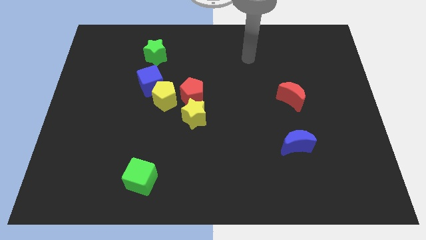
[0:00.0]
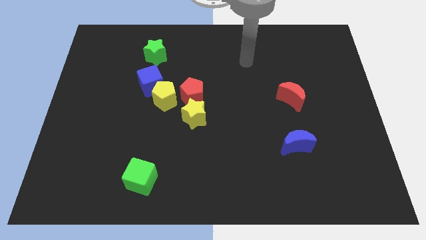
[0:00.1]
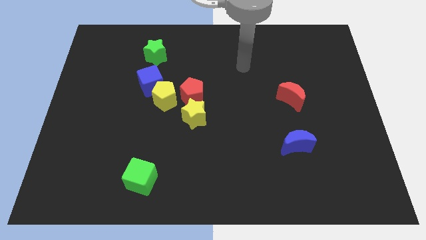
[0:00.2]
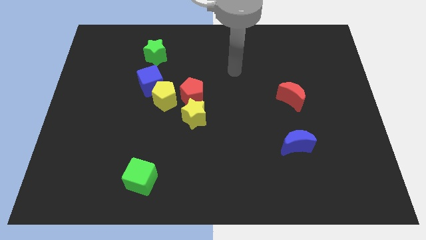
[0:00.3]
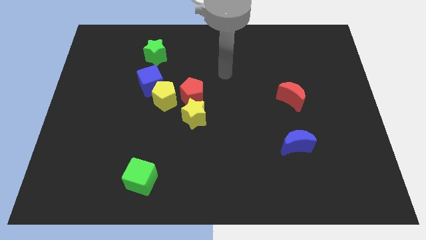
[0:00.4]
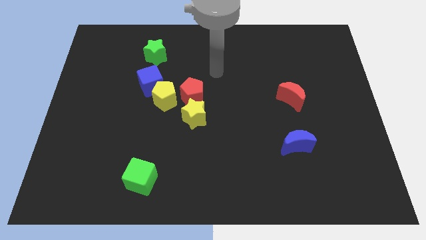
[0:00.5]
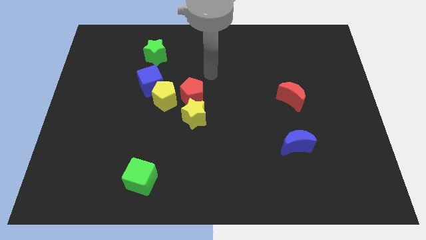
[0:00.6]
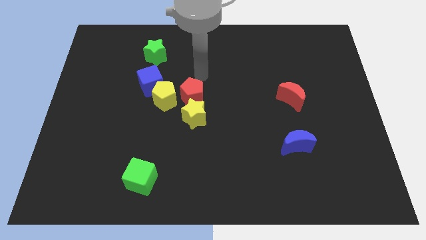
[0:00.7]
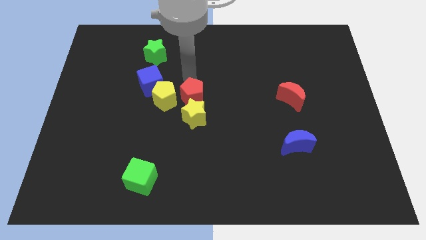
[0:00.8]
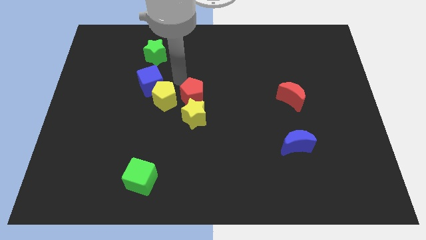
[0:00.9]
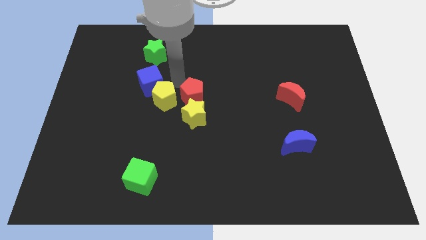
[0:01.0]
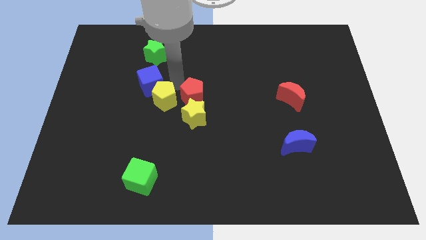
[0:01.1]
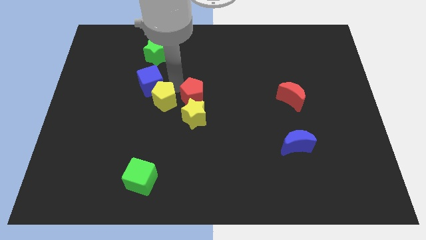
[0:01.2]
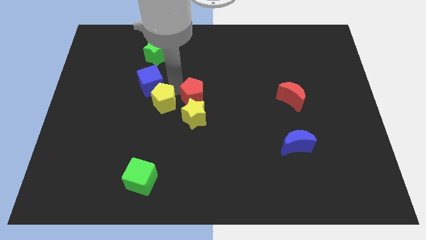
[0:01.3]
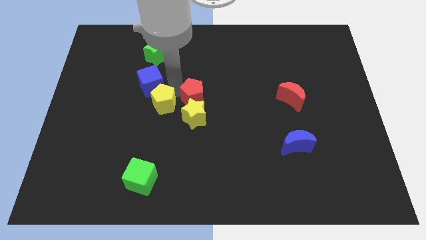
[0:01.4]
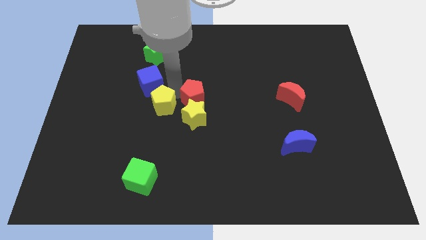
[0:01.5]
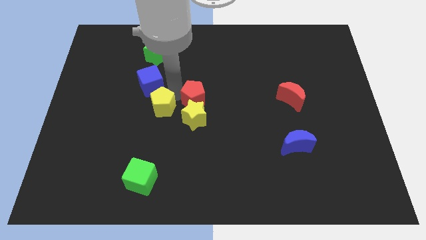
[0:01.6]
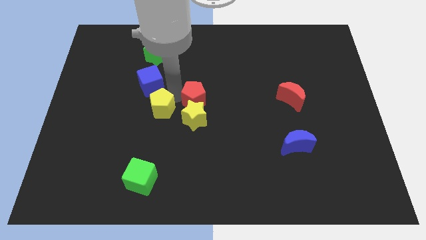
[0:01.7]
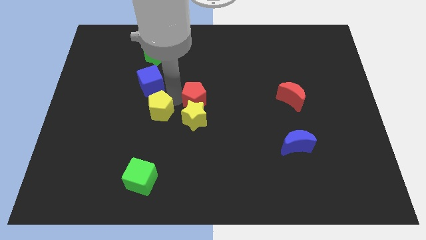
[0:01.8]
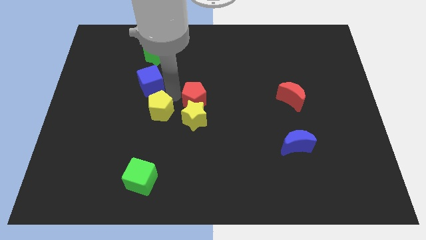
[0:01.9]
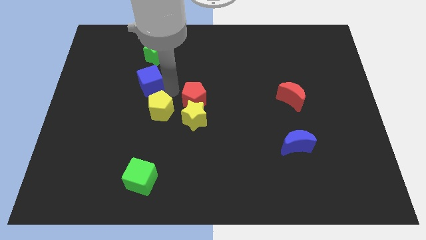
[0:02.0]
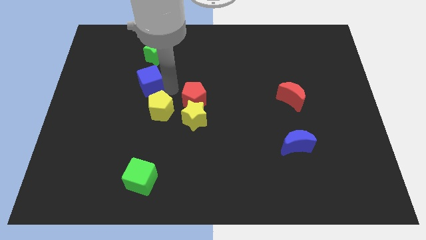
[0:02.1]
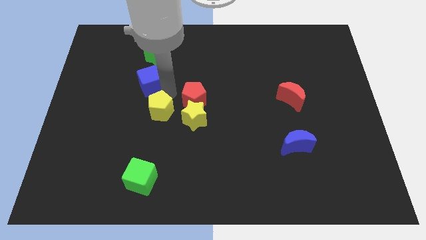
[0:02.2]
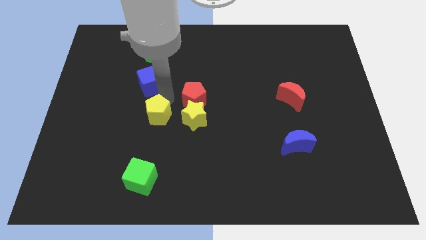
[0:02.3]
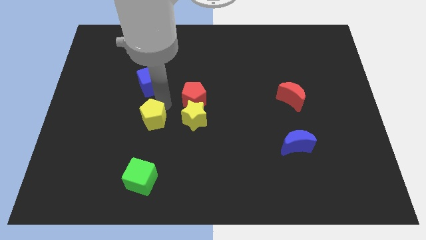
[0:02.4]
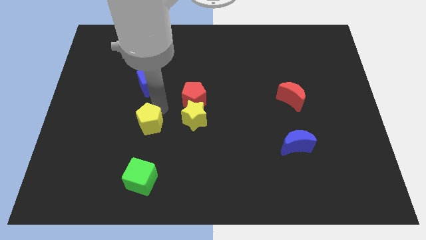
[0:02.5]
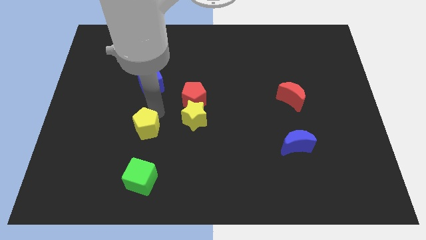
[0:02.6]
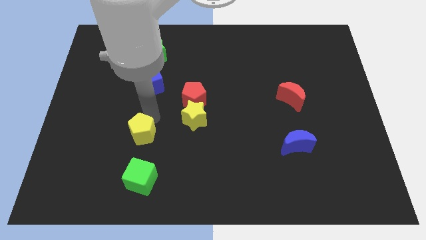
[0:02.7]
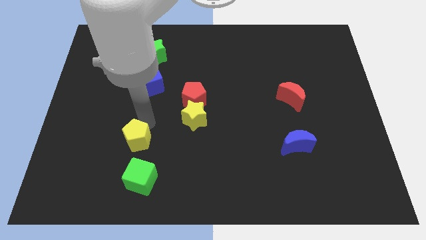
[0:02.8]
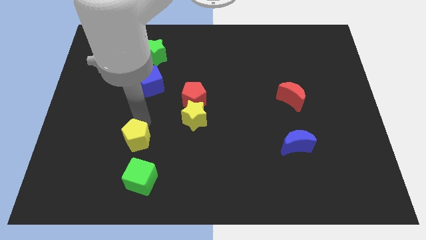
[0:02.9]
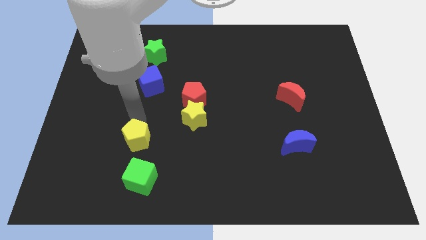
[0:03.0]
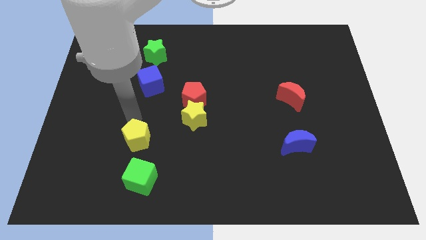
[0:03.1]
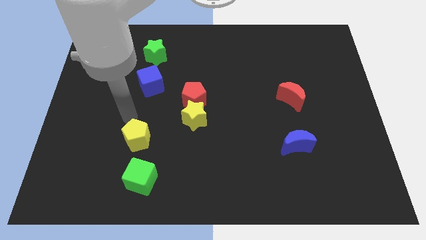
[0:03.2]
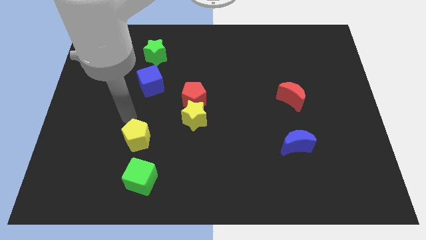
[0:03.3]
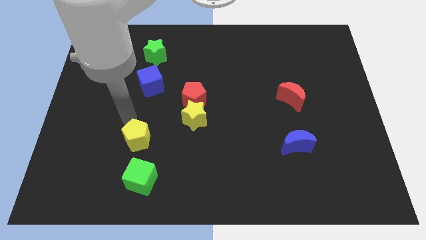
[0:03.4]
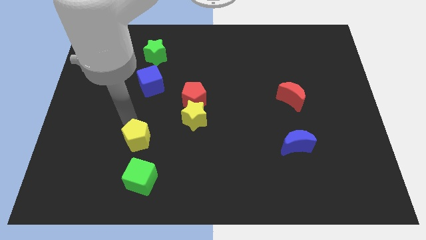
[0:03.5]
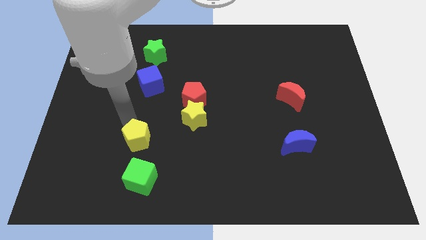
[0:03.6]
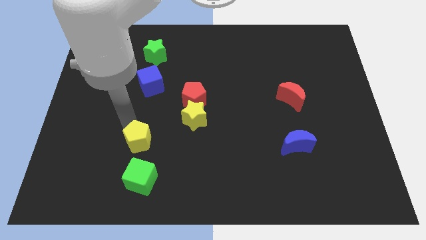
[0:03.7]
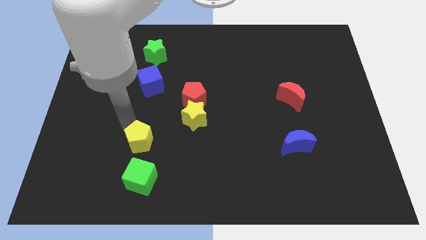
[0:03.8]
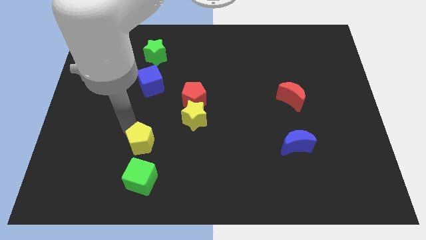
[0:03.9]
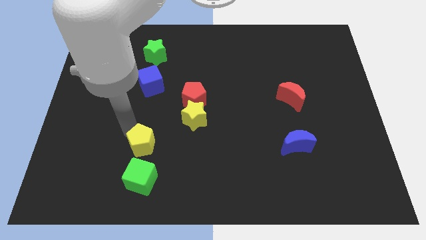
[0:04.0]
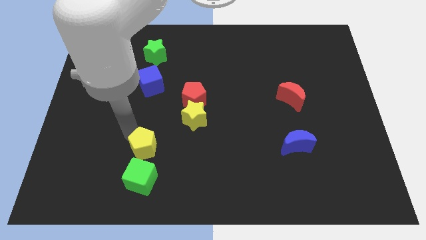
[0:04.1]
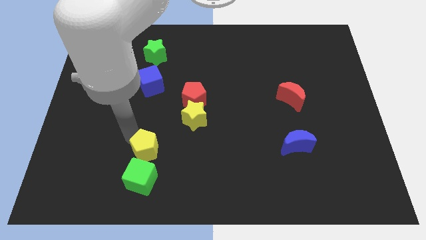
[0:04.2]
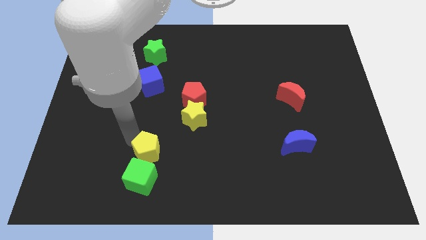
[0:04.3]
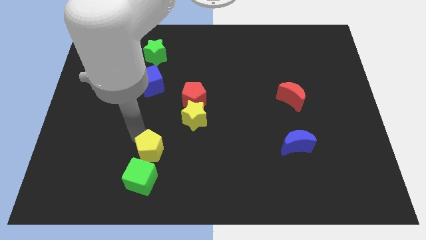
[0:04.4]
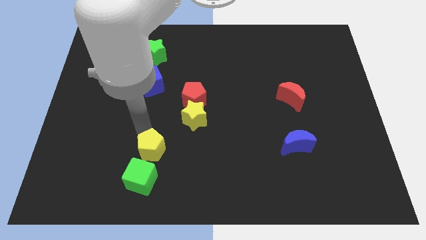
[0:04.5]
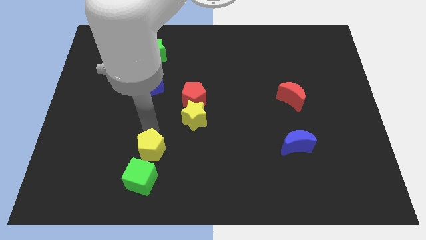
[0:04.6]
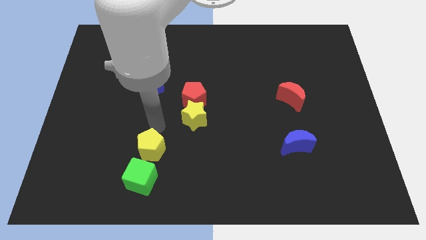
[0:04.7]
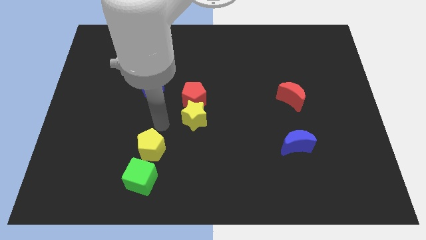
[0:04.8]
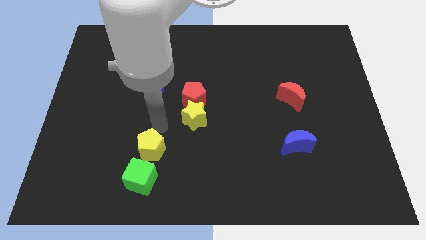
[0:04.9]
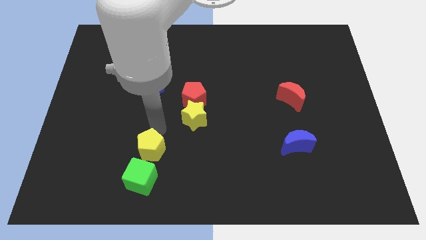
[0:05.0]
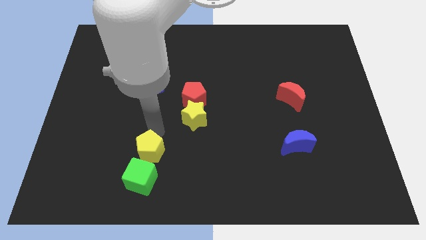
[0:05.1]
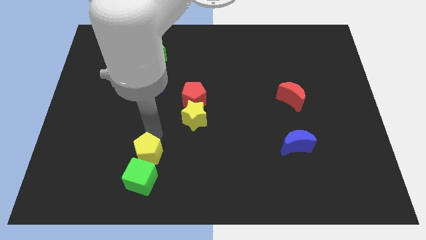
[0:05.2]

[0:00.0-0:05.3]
push the yellow pentagon next to the green cube

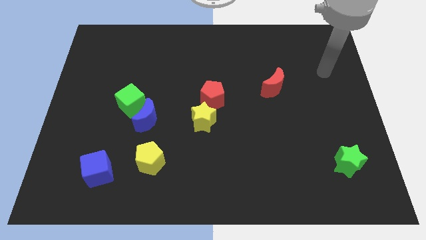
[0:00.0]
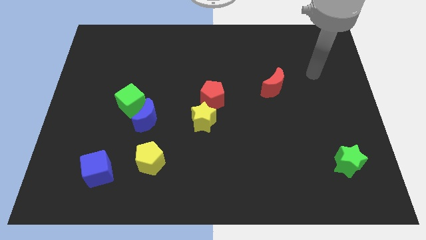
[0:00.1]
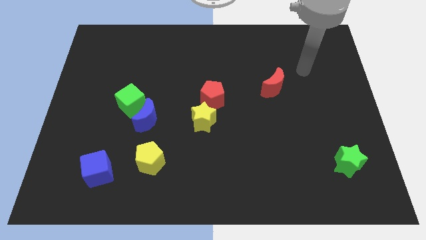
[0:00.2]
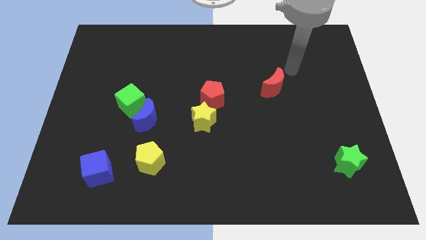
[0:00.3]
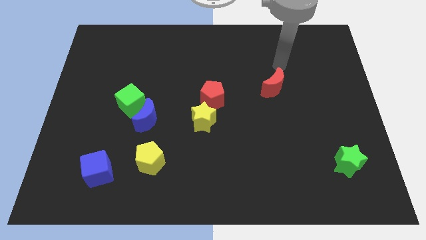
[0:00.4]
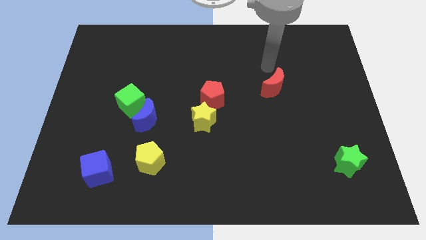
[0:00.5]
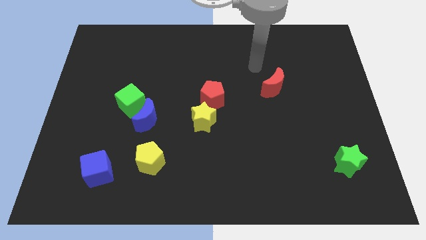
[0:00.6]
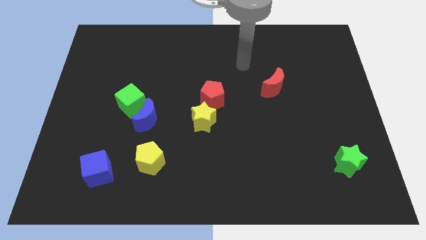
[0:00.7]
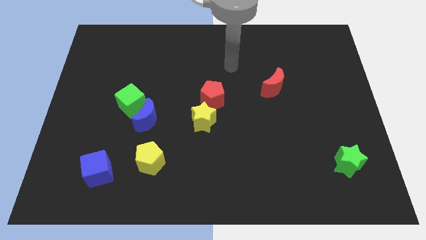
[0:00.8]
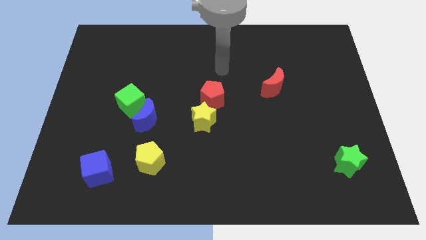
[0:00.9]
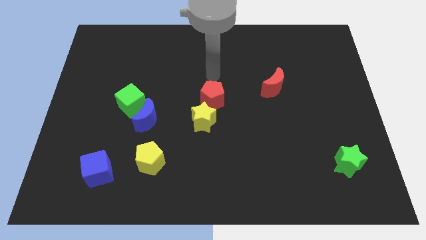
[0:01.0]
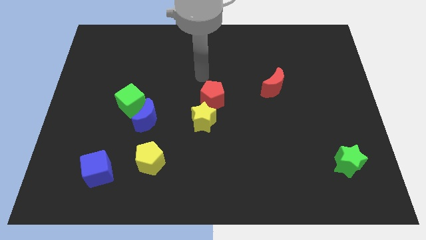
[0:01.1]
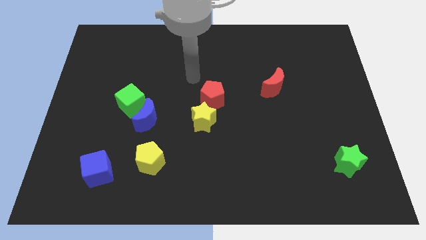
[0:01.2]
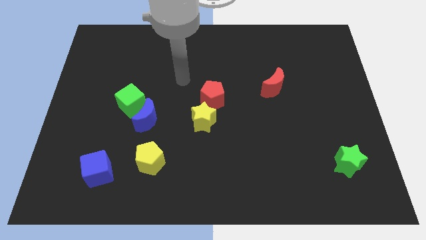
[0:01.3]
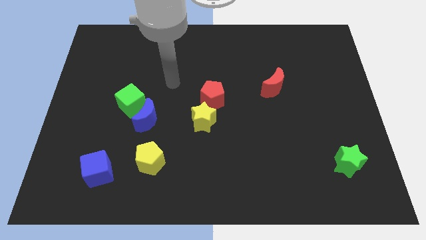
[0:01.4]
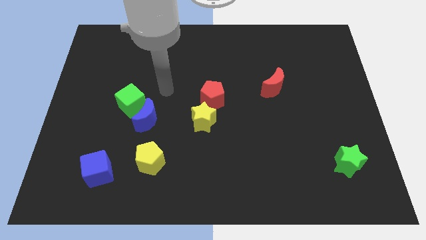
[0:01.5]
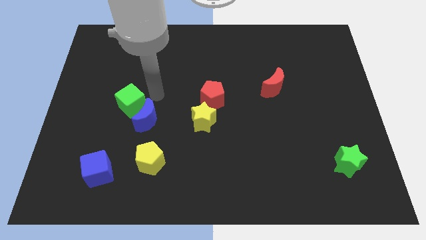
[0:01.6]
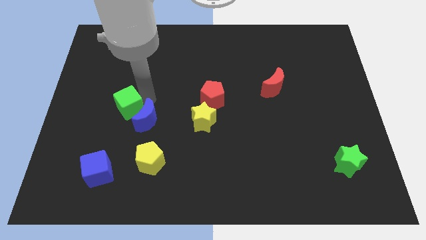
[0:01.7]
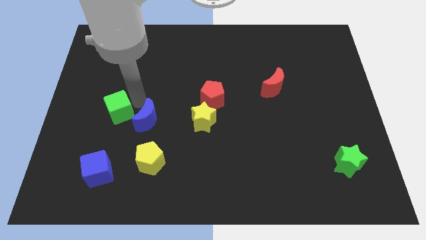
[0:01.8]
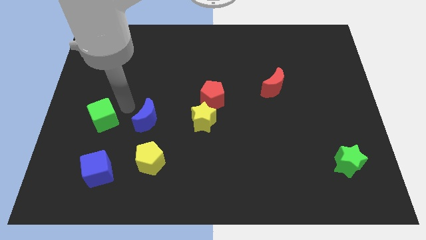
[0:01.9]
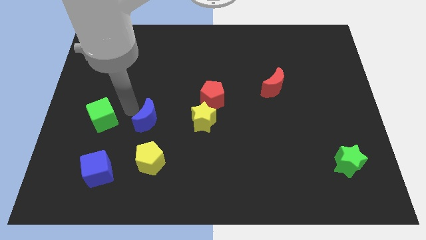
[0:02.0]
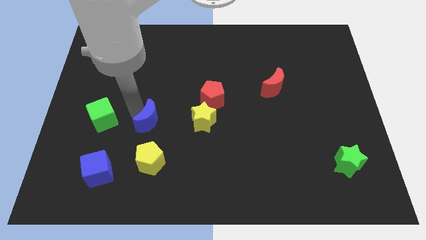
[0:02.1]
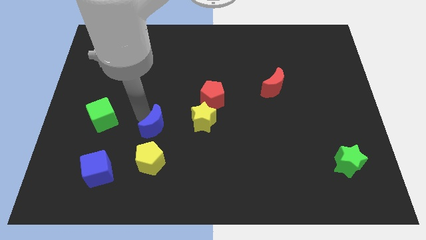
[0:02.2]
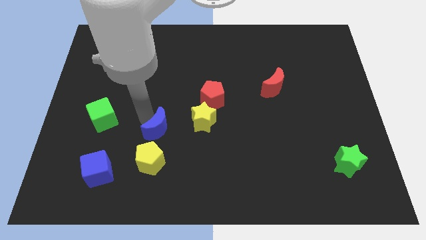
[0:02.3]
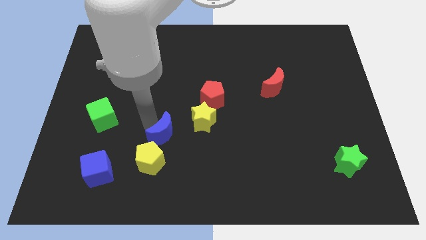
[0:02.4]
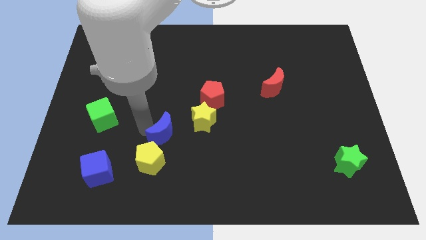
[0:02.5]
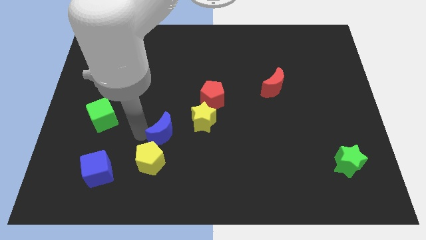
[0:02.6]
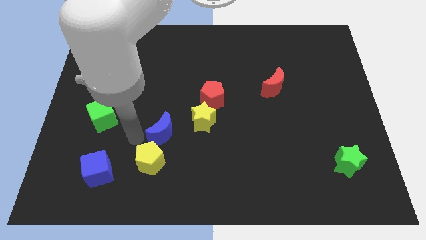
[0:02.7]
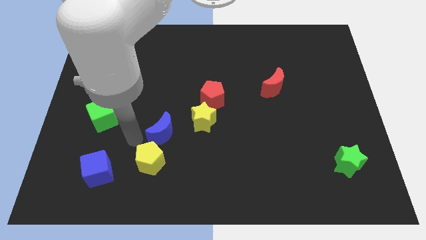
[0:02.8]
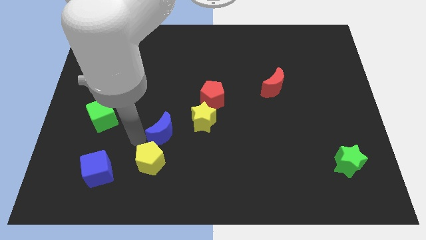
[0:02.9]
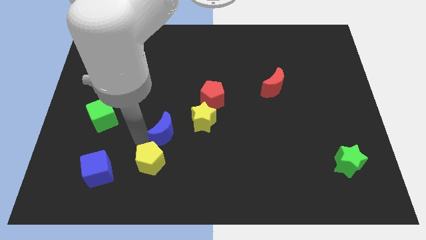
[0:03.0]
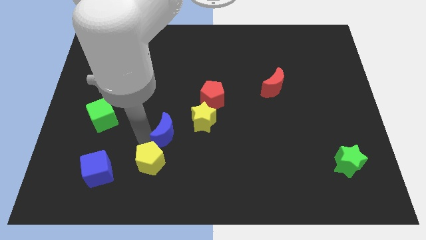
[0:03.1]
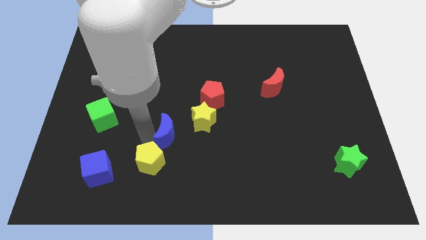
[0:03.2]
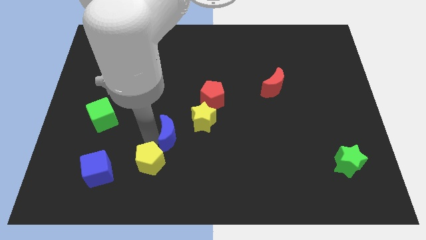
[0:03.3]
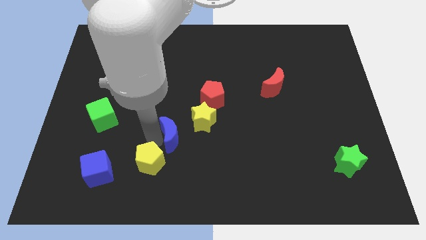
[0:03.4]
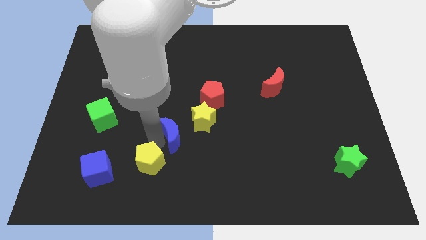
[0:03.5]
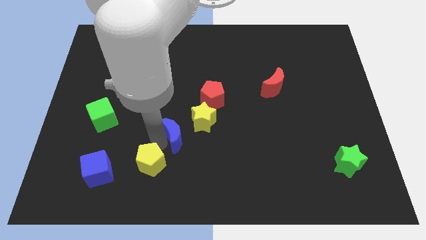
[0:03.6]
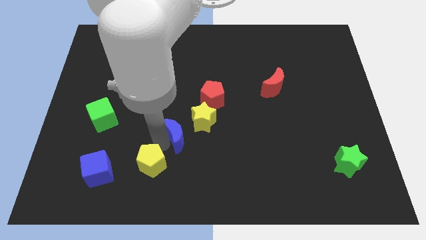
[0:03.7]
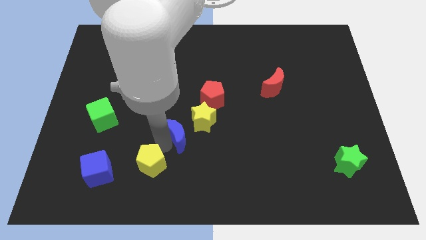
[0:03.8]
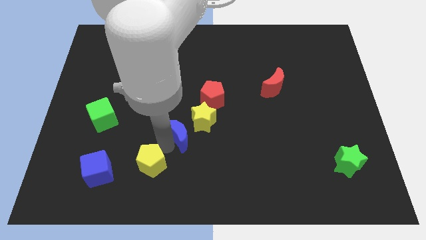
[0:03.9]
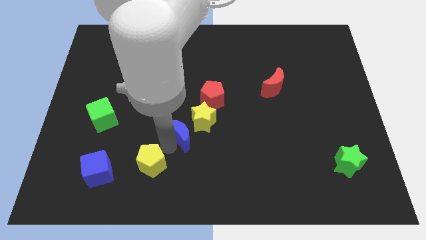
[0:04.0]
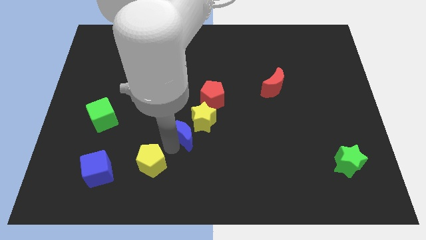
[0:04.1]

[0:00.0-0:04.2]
move the blue moon close to the yellow star
